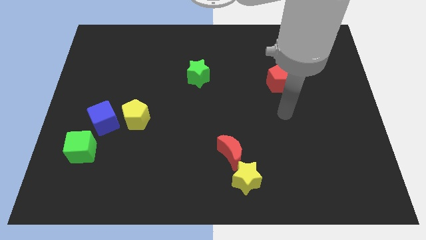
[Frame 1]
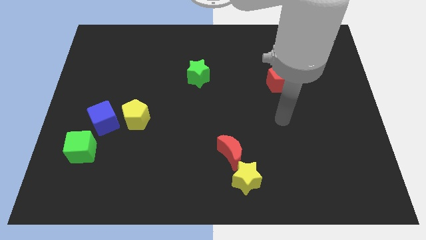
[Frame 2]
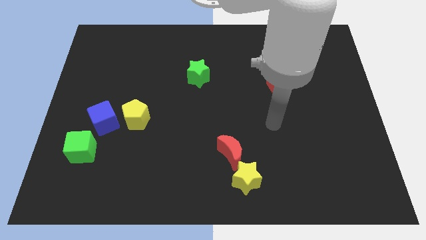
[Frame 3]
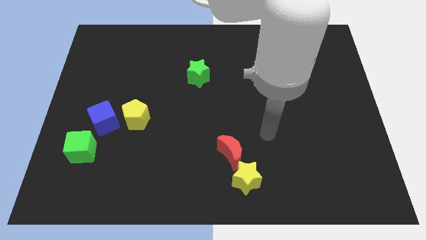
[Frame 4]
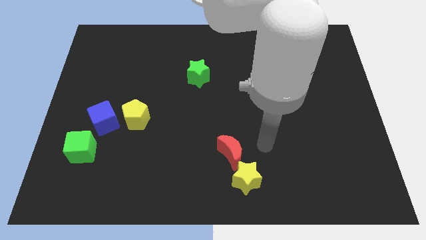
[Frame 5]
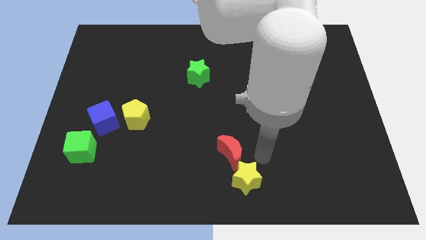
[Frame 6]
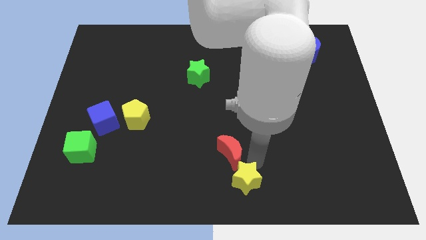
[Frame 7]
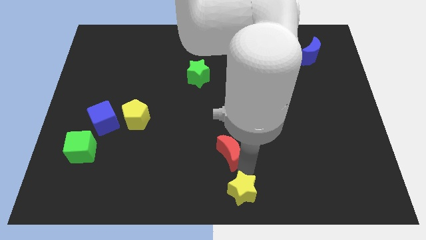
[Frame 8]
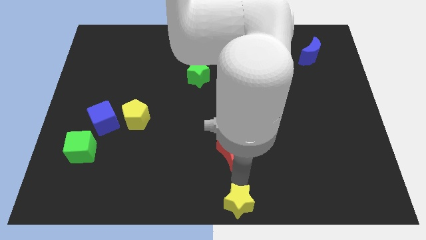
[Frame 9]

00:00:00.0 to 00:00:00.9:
pull the red moon apart from the yellow star

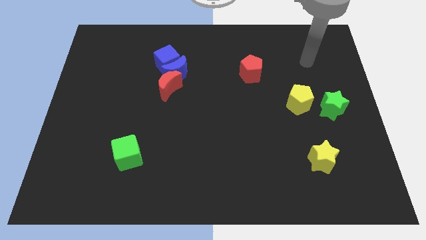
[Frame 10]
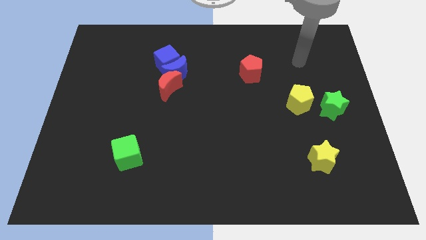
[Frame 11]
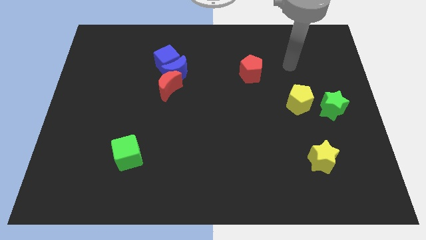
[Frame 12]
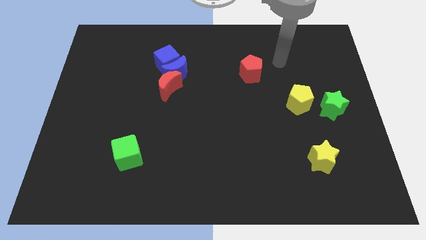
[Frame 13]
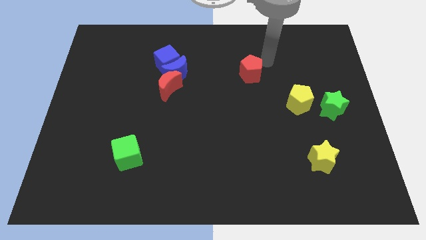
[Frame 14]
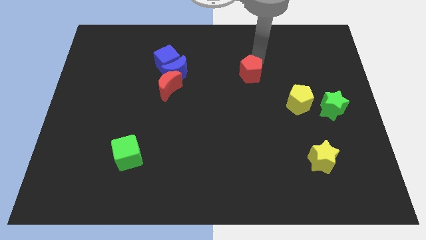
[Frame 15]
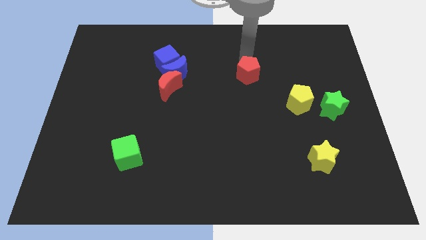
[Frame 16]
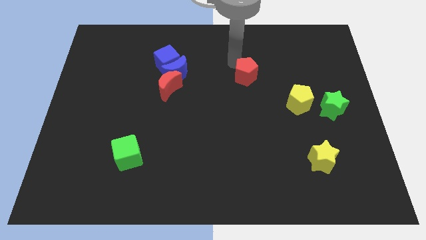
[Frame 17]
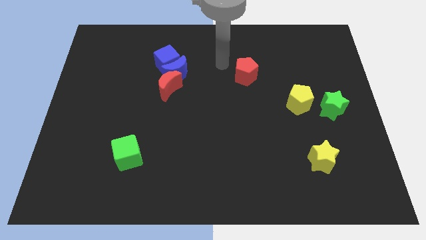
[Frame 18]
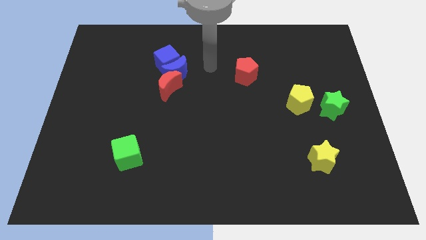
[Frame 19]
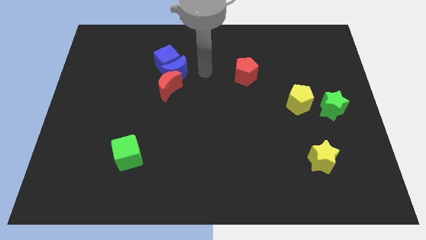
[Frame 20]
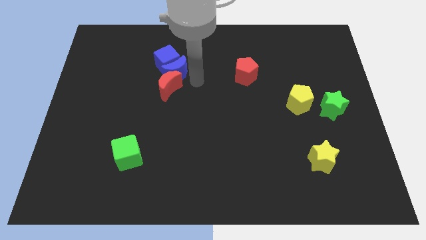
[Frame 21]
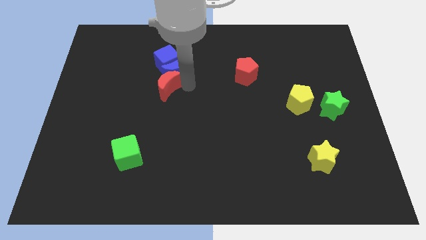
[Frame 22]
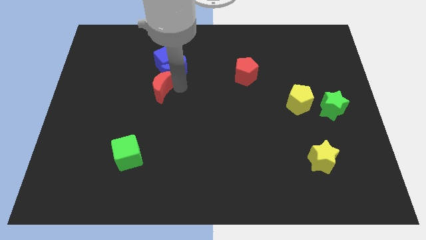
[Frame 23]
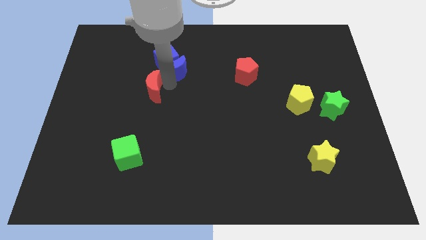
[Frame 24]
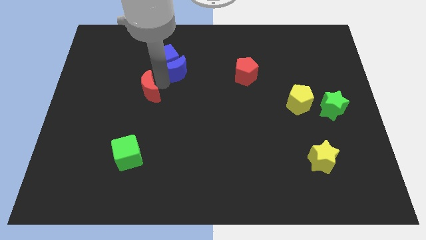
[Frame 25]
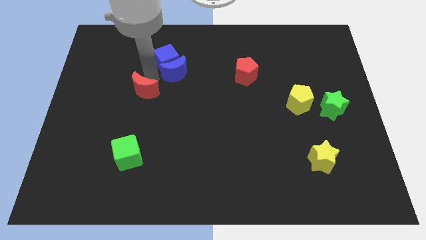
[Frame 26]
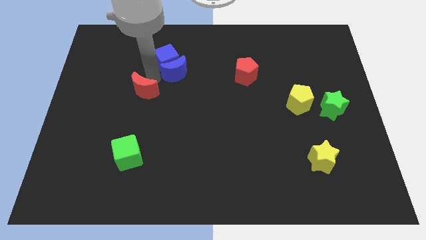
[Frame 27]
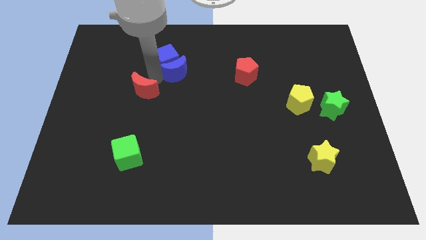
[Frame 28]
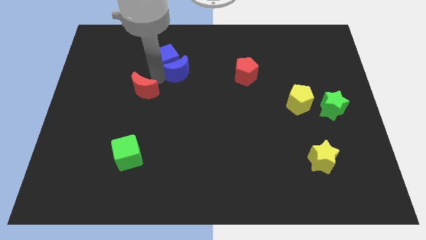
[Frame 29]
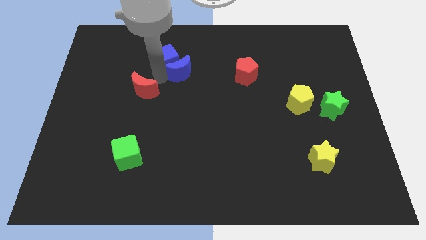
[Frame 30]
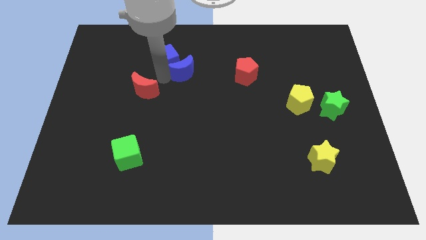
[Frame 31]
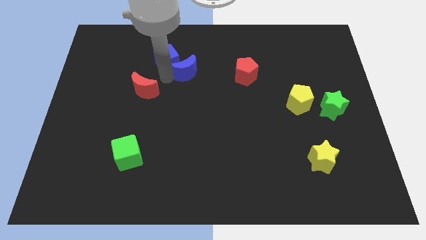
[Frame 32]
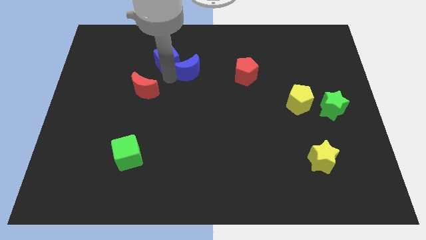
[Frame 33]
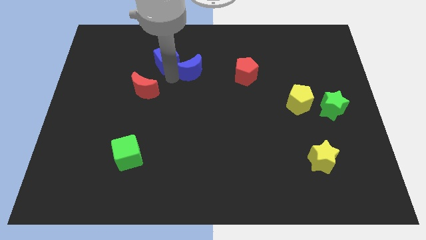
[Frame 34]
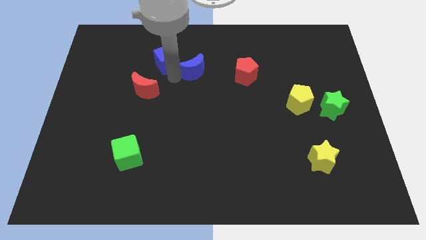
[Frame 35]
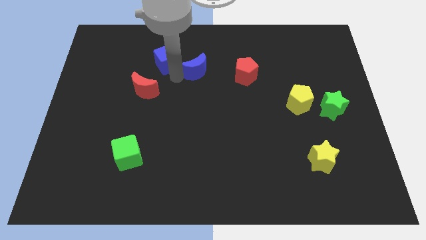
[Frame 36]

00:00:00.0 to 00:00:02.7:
pull the blue moon apart from the blue cube and red moon

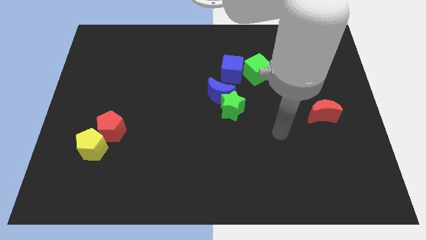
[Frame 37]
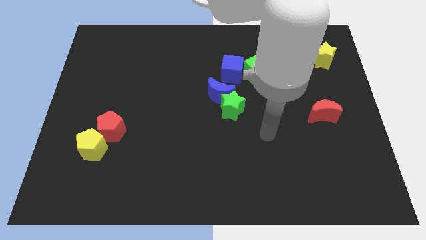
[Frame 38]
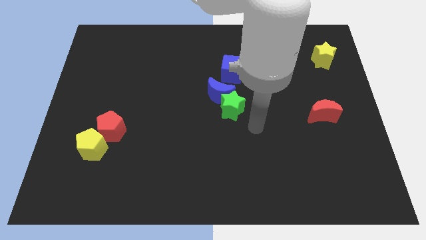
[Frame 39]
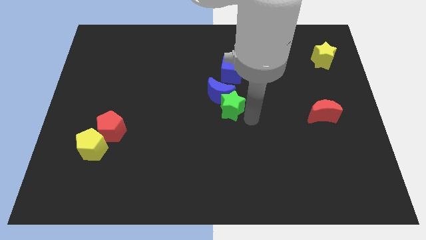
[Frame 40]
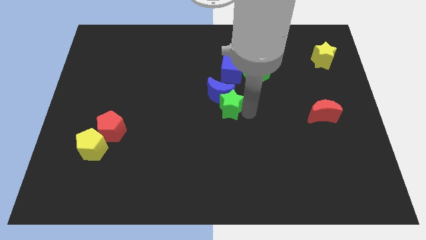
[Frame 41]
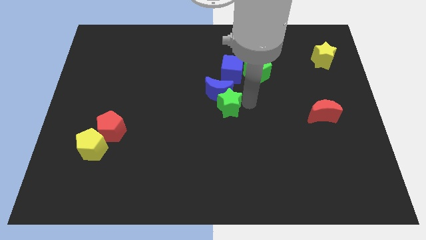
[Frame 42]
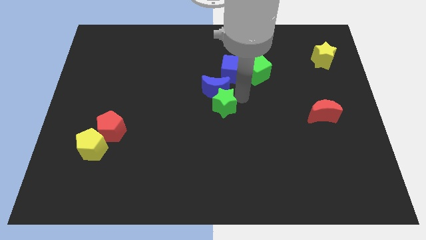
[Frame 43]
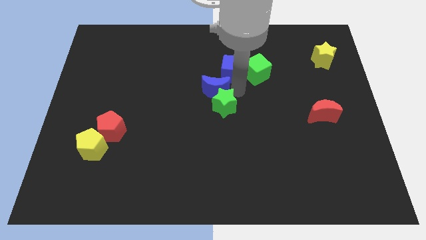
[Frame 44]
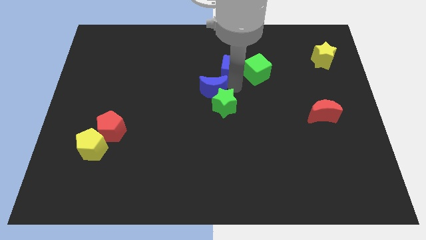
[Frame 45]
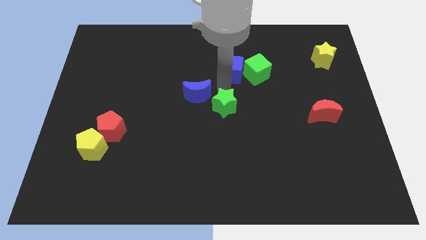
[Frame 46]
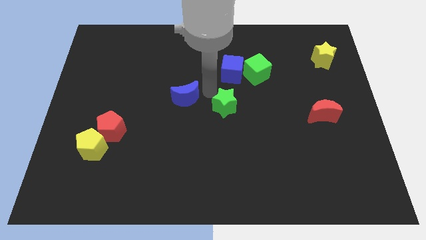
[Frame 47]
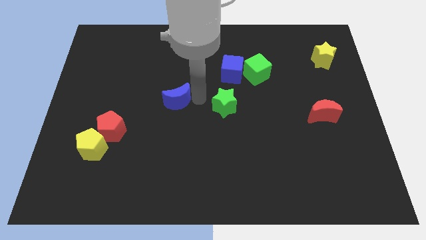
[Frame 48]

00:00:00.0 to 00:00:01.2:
move the green star away from the blue moon

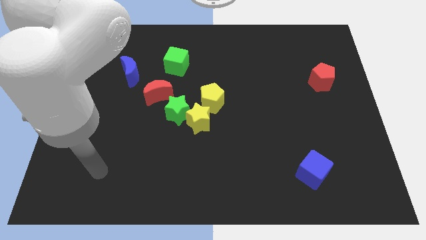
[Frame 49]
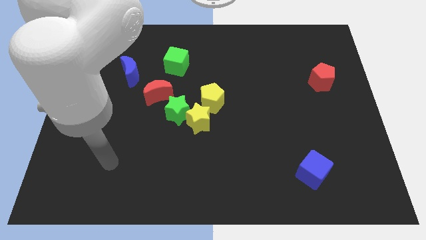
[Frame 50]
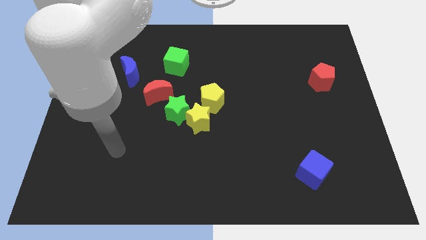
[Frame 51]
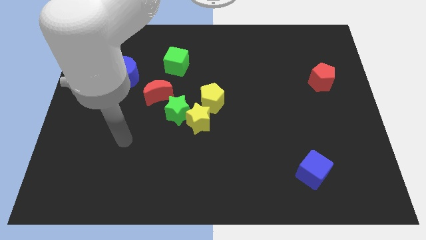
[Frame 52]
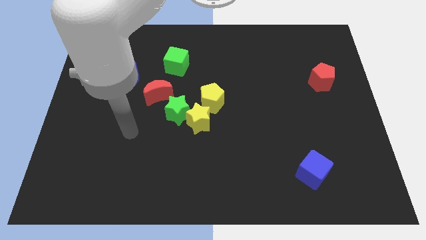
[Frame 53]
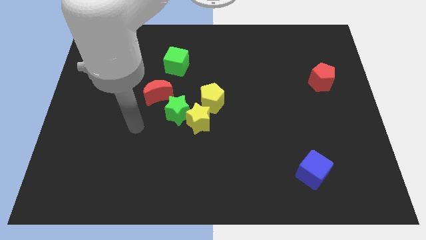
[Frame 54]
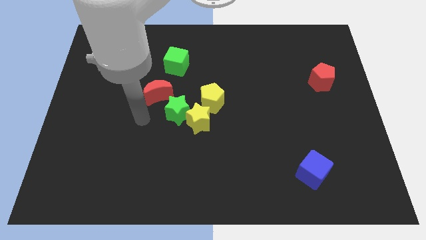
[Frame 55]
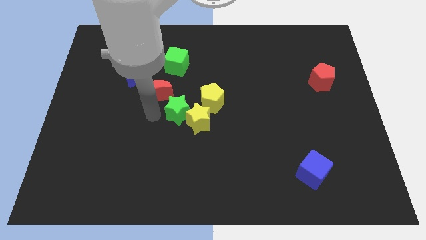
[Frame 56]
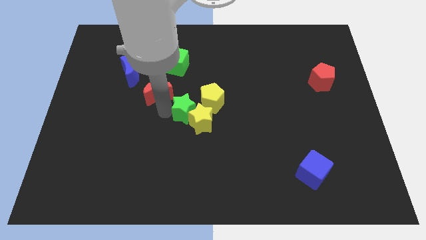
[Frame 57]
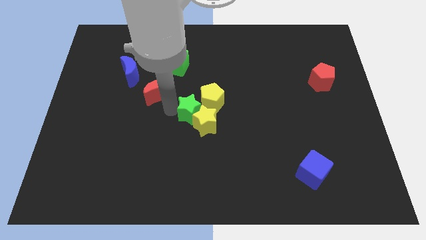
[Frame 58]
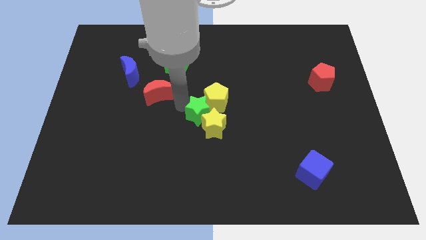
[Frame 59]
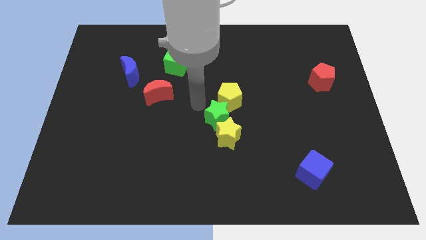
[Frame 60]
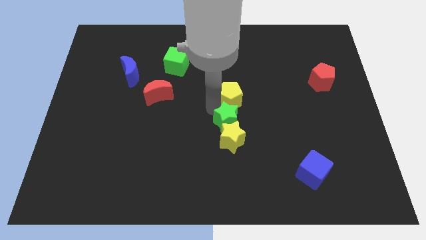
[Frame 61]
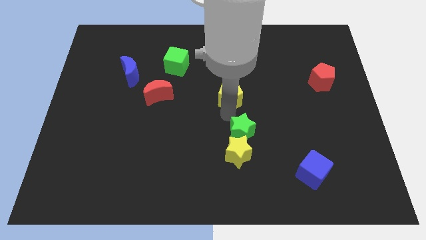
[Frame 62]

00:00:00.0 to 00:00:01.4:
move the yellow star away from the green star and yellow pentagon

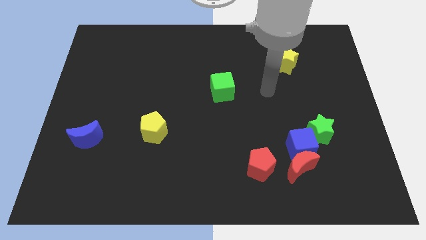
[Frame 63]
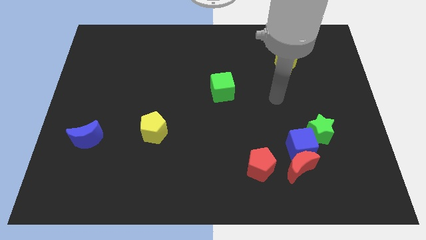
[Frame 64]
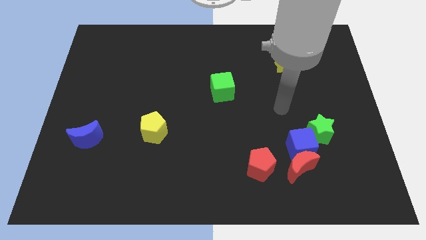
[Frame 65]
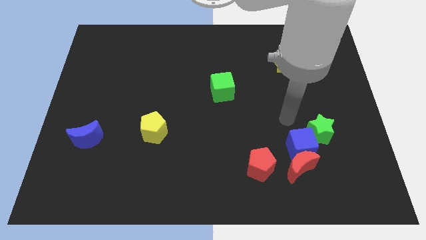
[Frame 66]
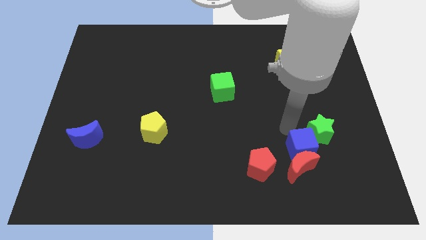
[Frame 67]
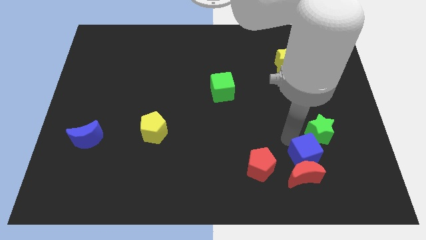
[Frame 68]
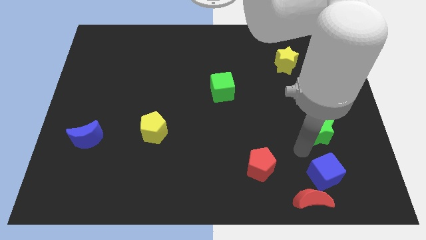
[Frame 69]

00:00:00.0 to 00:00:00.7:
move the green star away from the blue cube

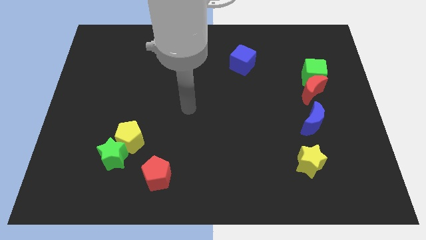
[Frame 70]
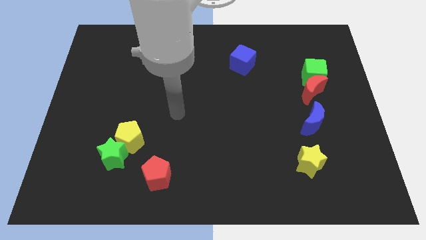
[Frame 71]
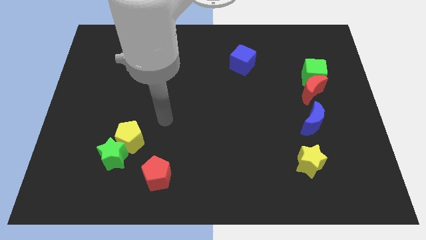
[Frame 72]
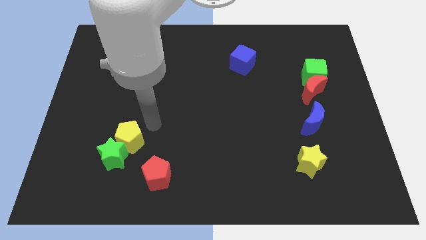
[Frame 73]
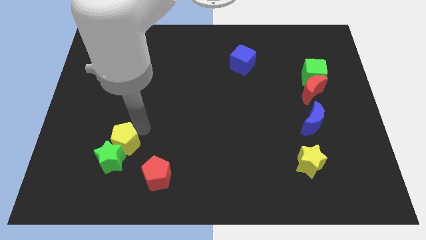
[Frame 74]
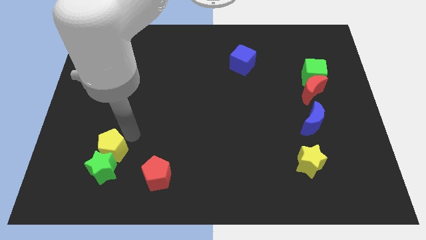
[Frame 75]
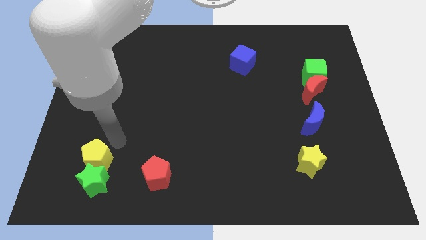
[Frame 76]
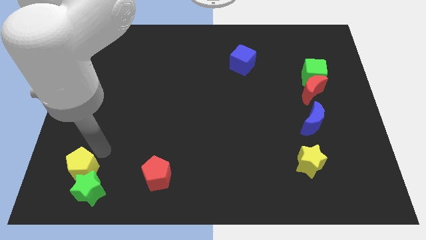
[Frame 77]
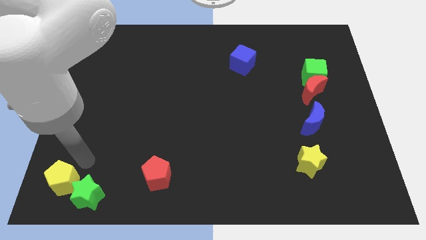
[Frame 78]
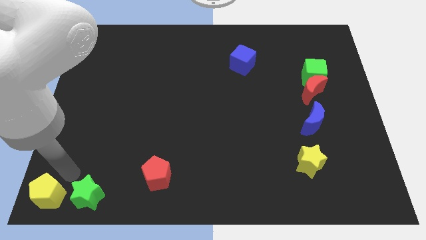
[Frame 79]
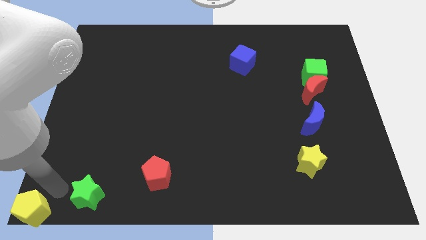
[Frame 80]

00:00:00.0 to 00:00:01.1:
pull the green star apart from the yellow pentagon

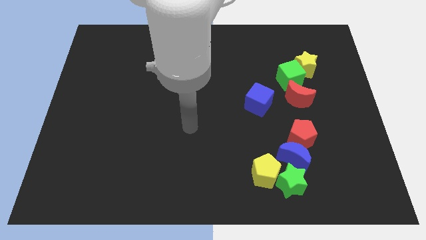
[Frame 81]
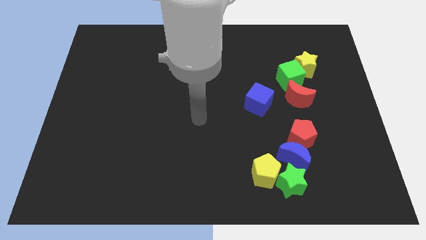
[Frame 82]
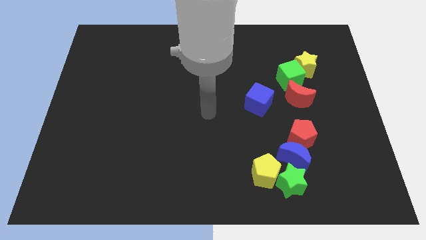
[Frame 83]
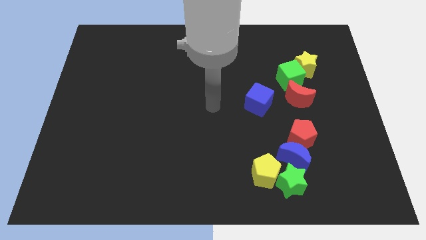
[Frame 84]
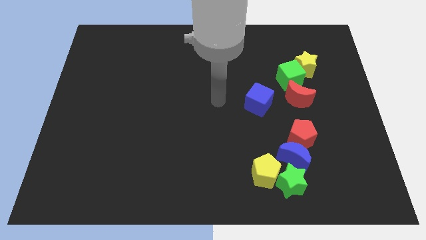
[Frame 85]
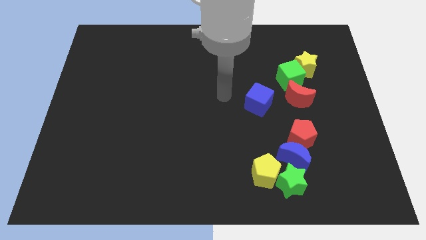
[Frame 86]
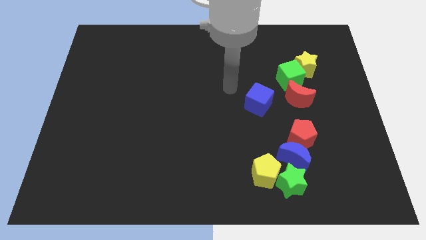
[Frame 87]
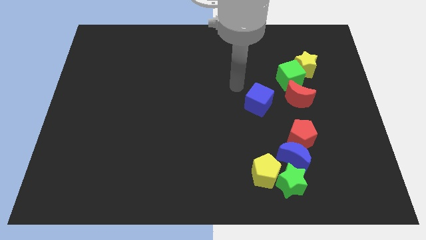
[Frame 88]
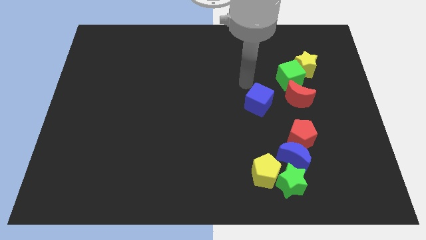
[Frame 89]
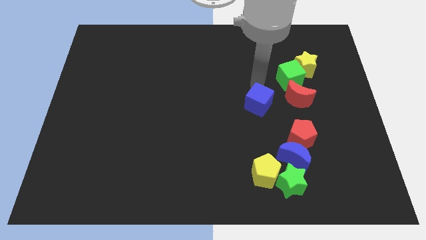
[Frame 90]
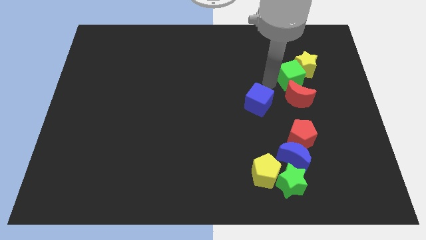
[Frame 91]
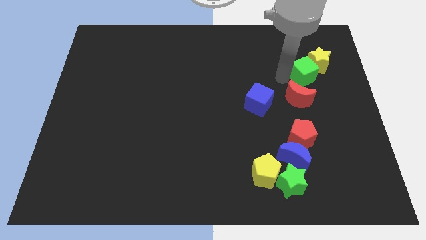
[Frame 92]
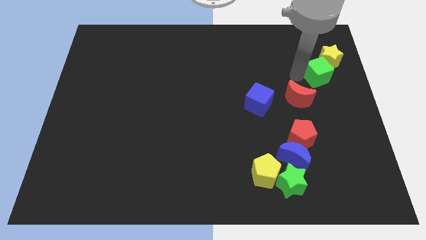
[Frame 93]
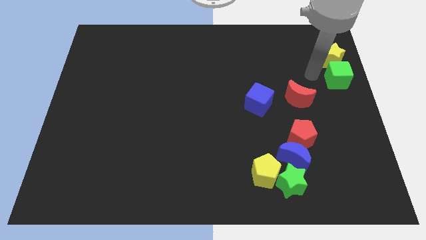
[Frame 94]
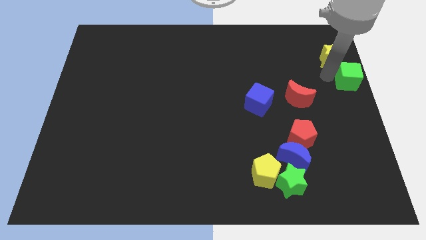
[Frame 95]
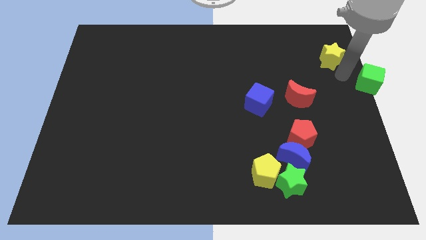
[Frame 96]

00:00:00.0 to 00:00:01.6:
separate the yellow star from the green cube
